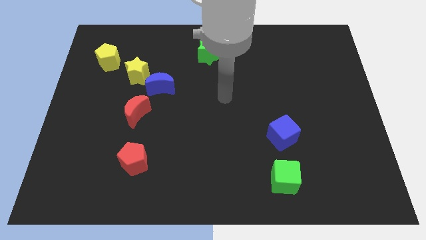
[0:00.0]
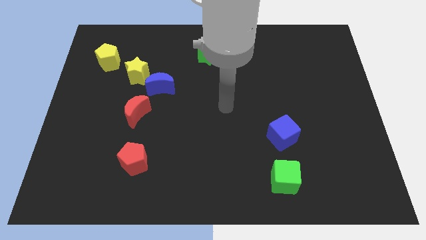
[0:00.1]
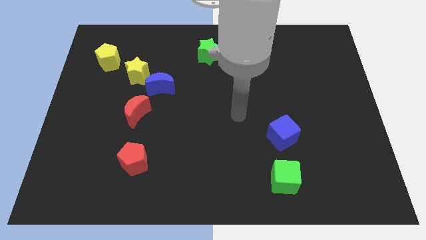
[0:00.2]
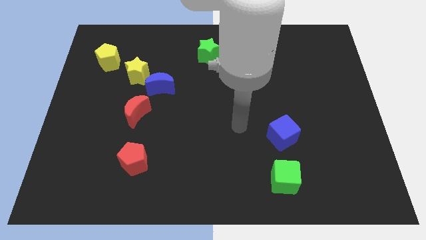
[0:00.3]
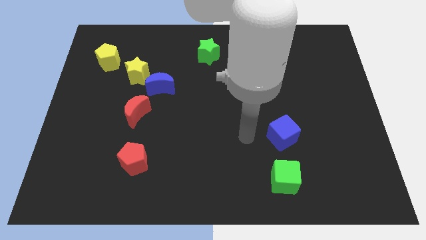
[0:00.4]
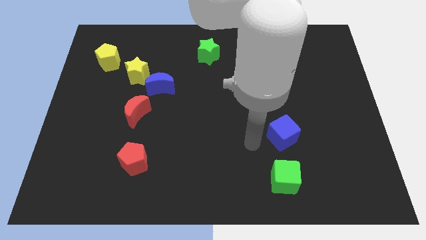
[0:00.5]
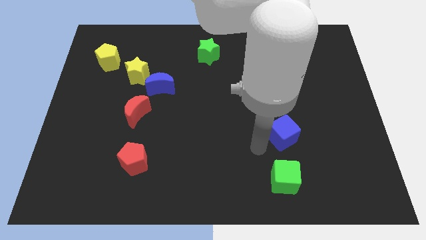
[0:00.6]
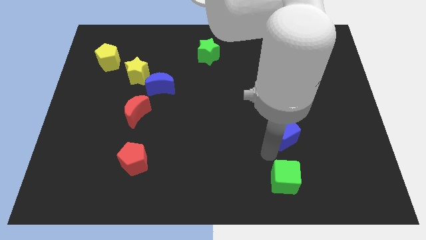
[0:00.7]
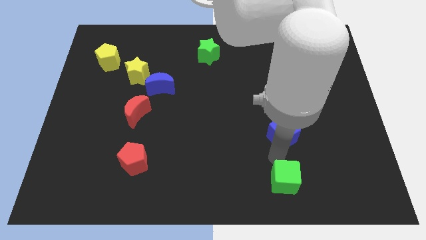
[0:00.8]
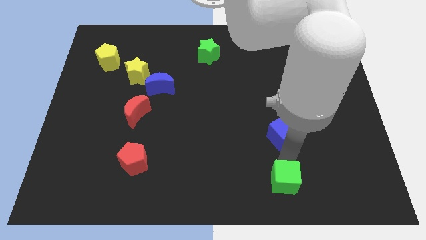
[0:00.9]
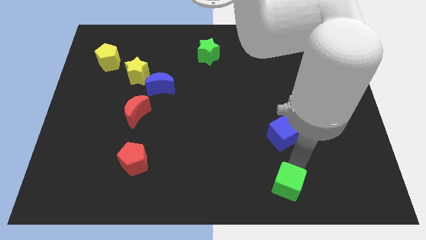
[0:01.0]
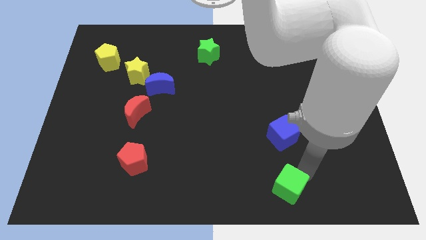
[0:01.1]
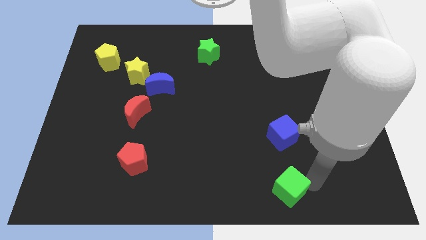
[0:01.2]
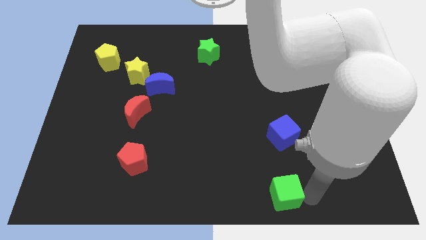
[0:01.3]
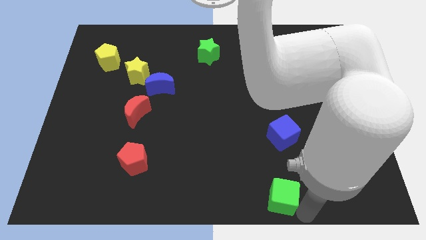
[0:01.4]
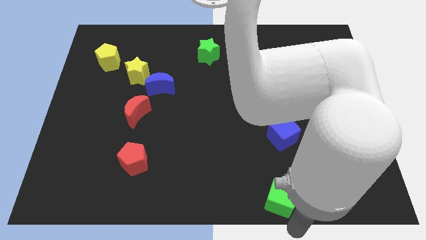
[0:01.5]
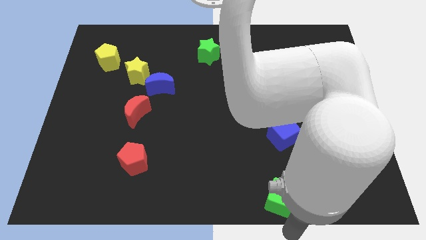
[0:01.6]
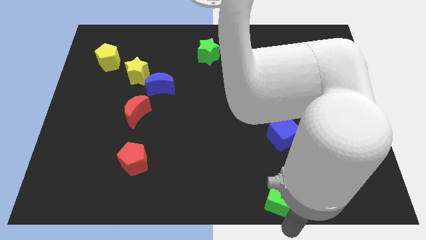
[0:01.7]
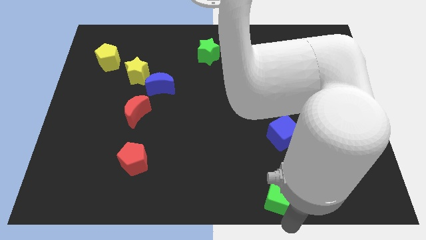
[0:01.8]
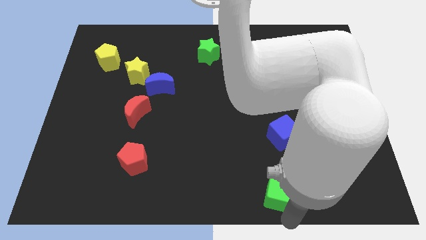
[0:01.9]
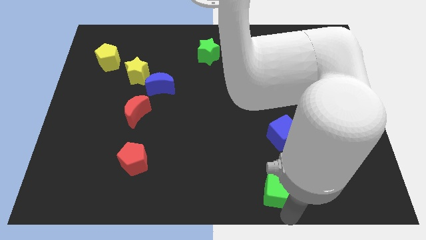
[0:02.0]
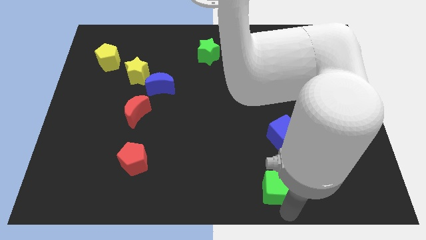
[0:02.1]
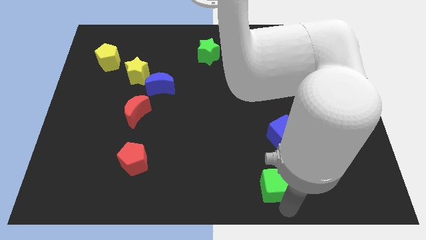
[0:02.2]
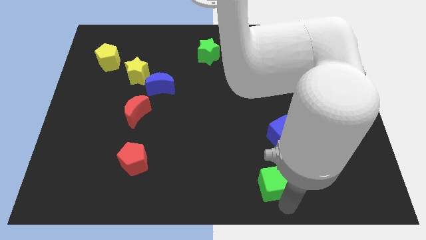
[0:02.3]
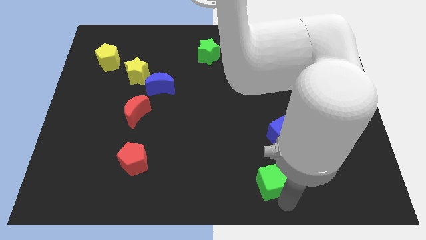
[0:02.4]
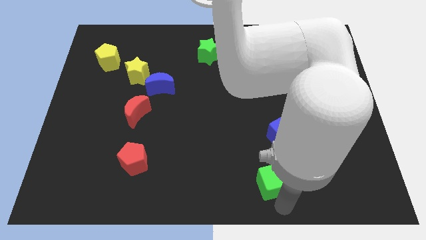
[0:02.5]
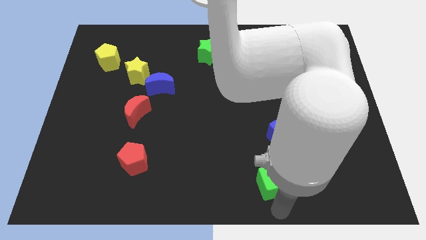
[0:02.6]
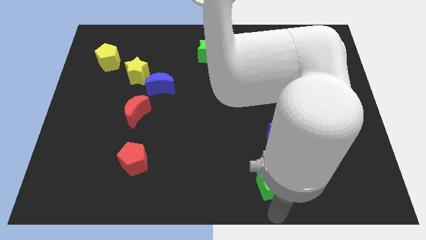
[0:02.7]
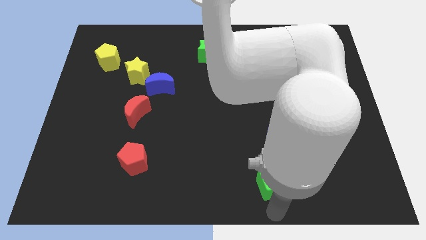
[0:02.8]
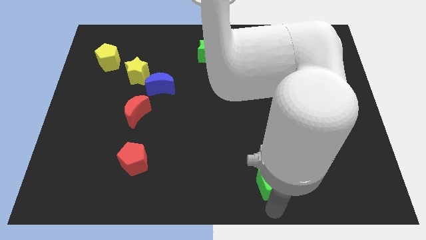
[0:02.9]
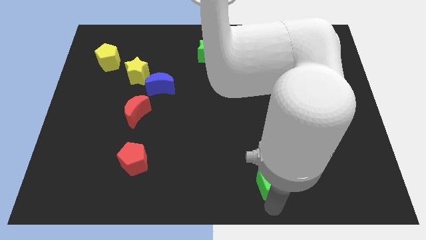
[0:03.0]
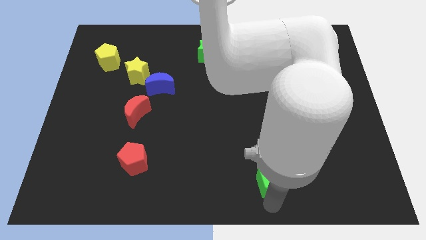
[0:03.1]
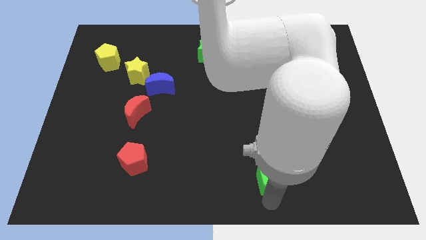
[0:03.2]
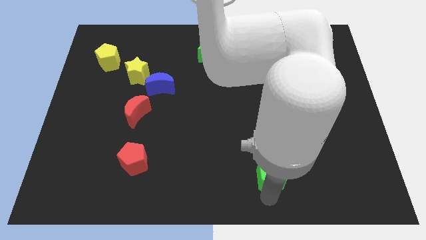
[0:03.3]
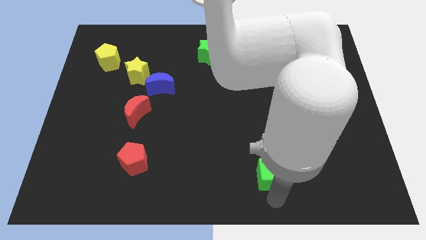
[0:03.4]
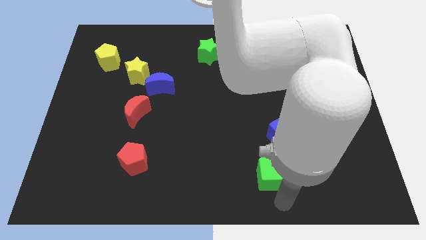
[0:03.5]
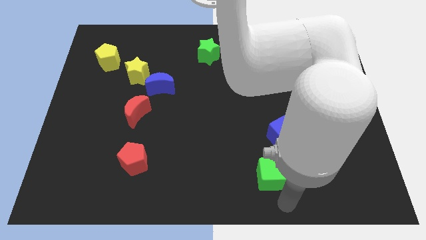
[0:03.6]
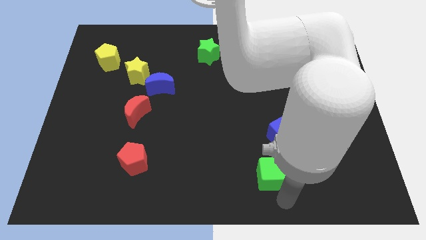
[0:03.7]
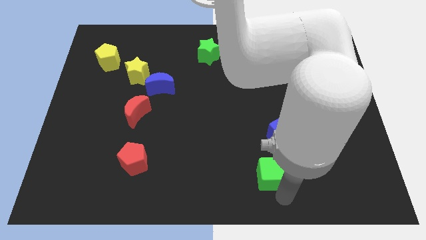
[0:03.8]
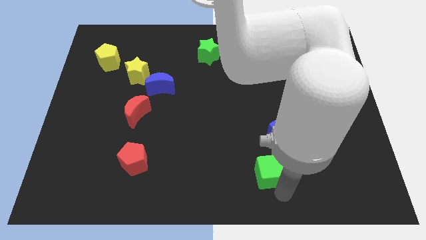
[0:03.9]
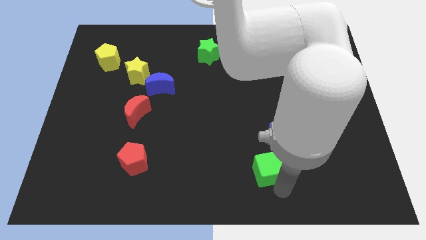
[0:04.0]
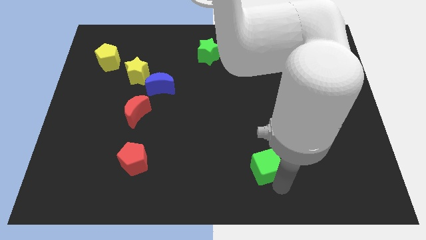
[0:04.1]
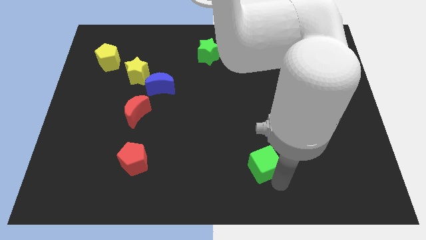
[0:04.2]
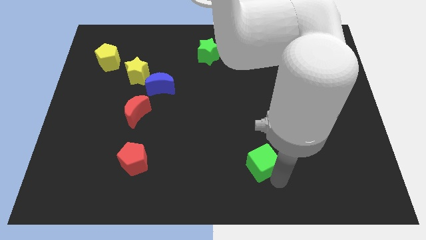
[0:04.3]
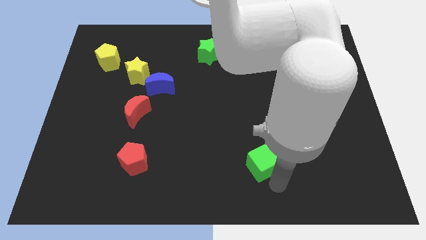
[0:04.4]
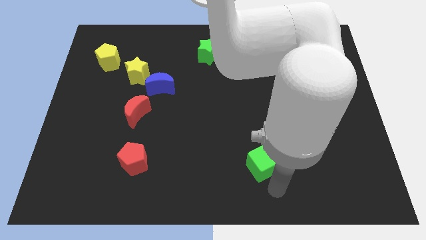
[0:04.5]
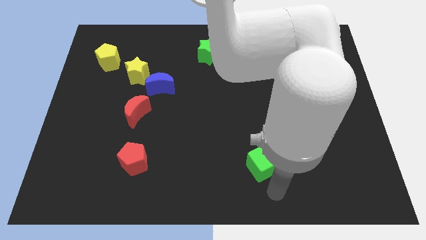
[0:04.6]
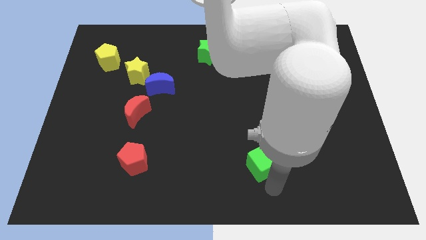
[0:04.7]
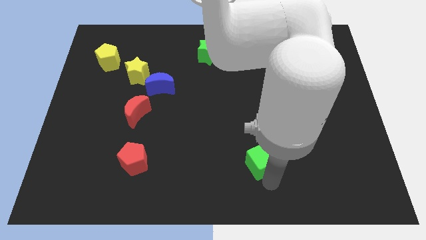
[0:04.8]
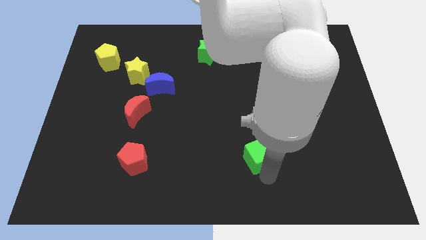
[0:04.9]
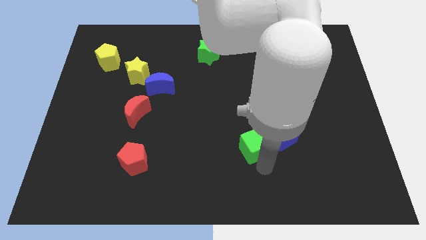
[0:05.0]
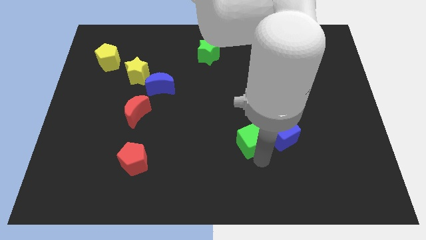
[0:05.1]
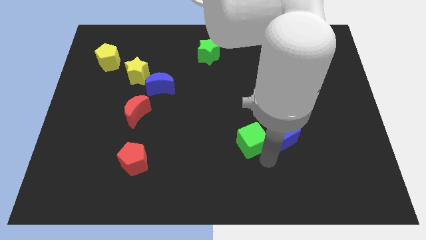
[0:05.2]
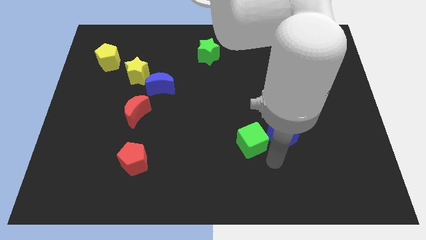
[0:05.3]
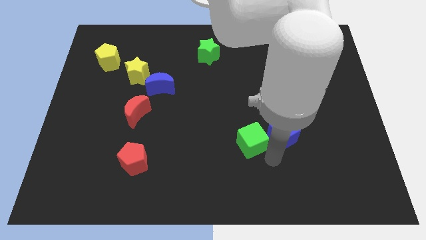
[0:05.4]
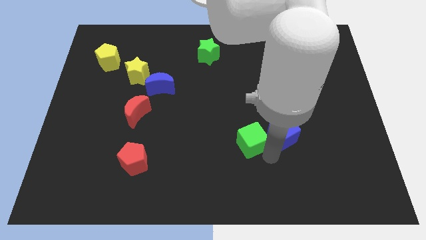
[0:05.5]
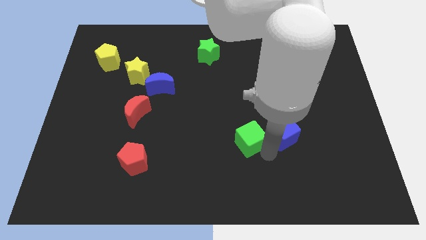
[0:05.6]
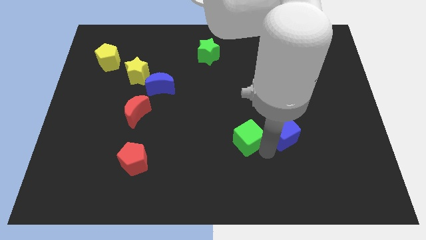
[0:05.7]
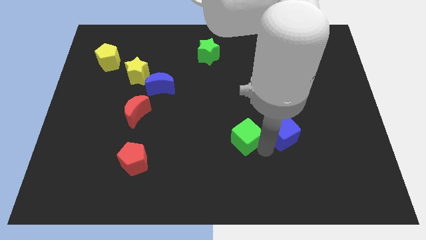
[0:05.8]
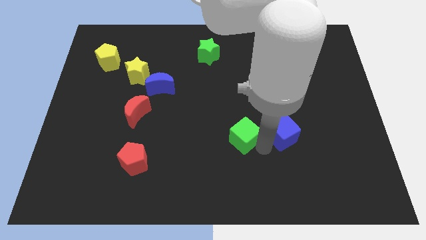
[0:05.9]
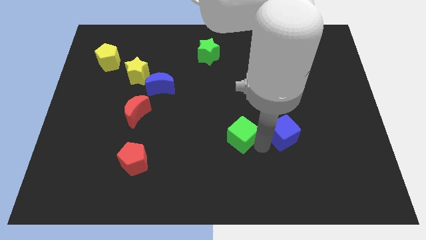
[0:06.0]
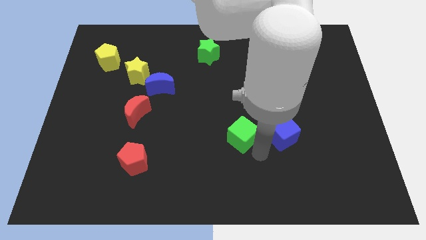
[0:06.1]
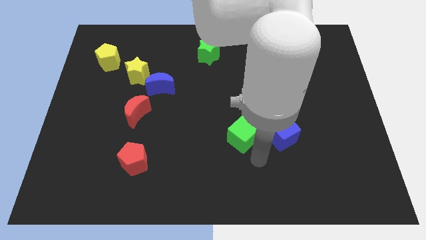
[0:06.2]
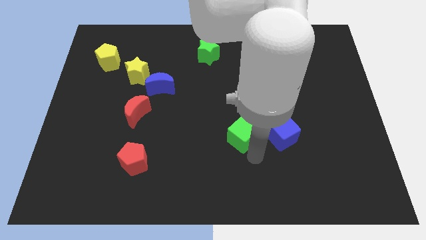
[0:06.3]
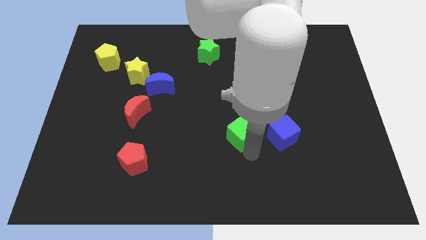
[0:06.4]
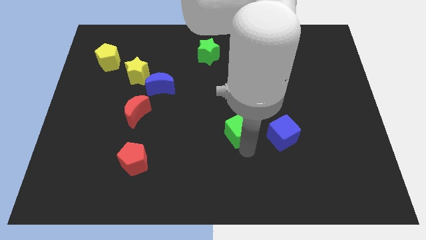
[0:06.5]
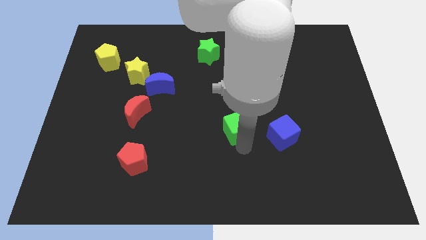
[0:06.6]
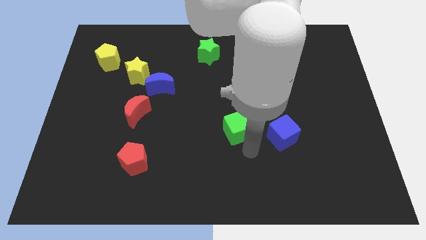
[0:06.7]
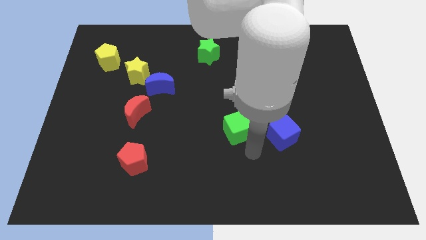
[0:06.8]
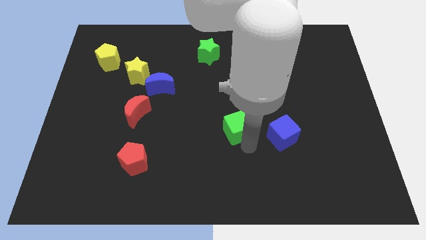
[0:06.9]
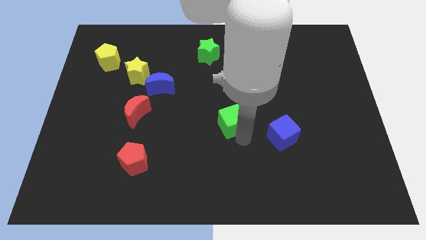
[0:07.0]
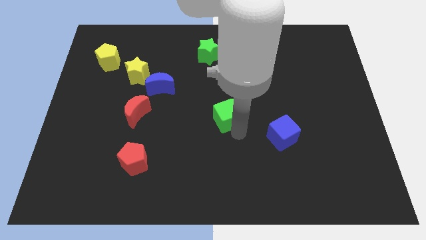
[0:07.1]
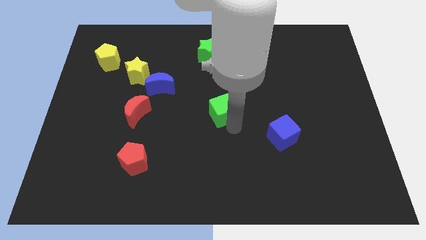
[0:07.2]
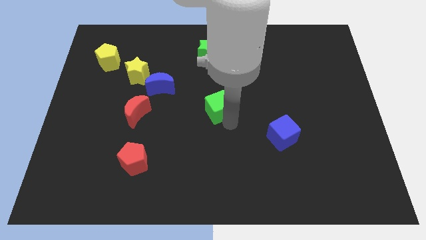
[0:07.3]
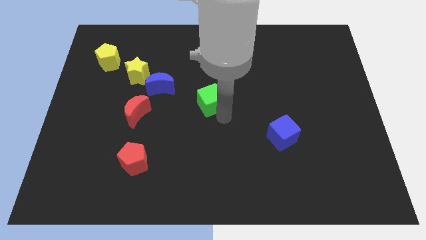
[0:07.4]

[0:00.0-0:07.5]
move the green cube below the green star

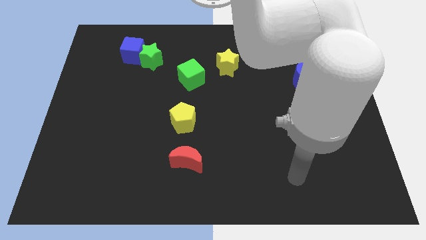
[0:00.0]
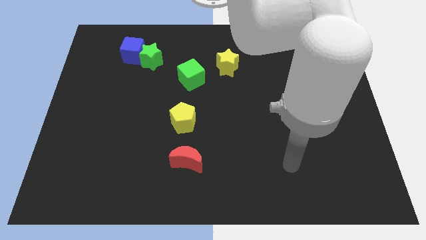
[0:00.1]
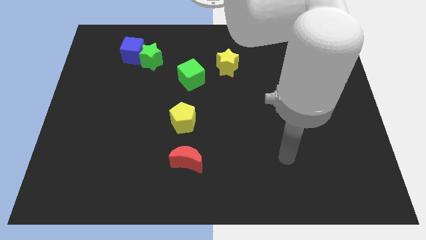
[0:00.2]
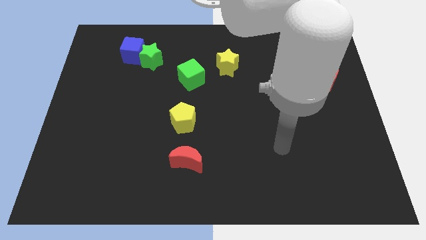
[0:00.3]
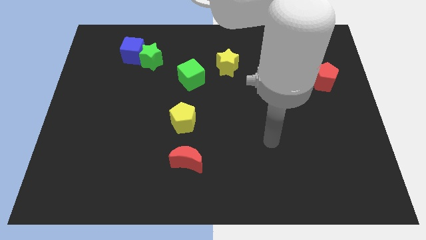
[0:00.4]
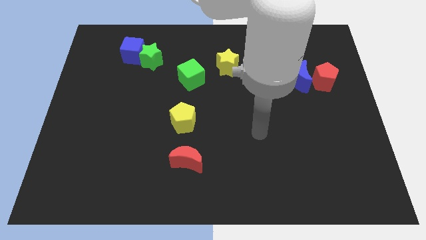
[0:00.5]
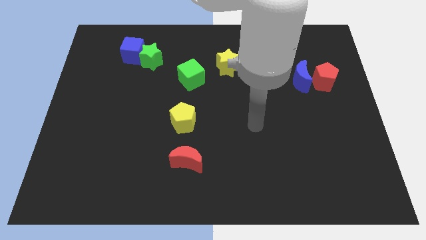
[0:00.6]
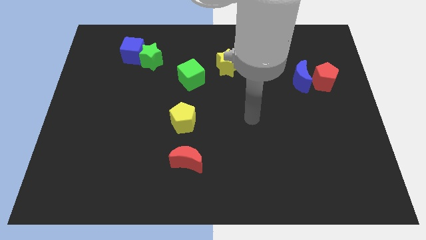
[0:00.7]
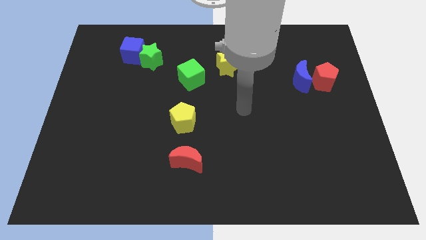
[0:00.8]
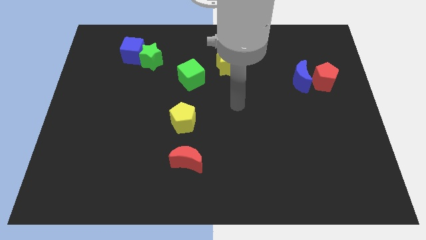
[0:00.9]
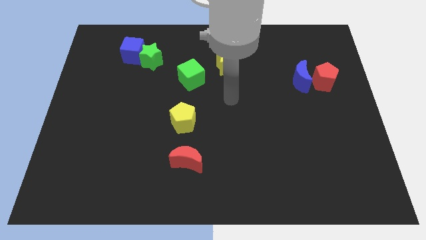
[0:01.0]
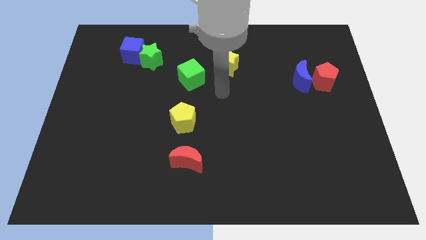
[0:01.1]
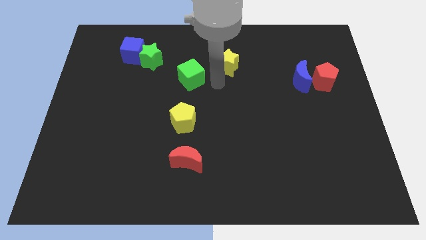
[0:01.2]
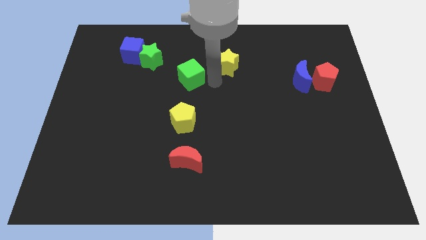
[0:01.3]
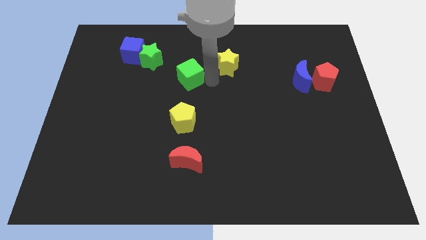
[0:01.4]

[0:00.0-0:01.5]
push the green cube diagonally down and to the right of the green star
